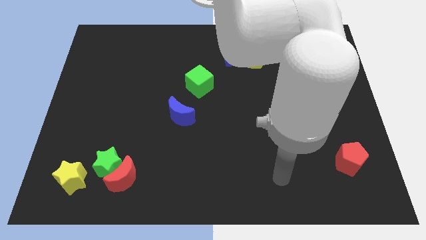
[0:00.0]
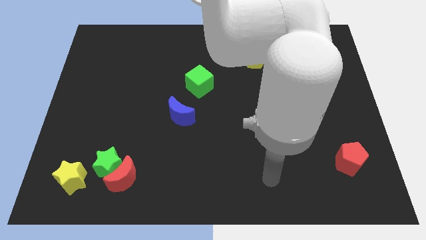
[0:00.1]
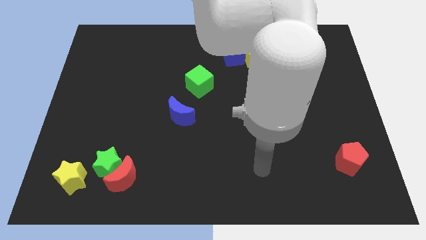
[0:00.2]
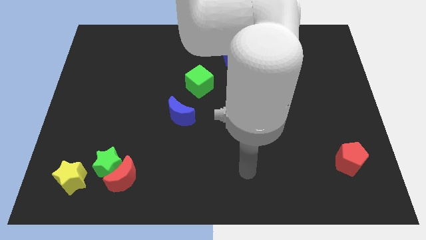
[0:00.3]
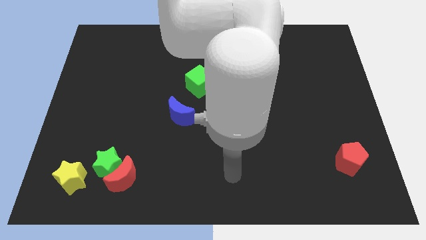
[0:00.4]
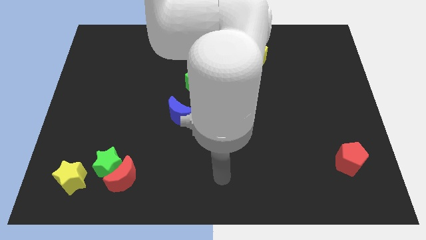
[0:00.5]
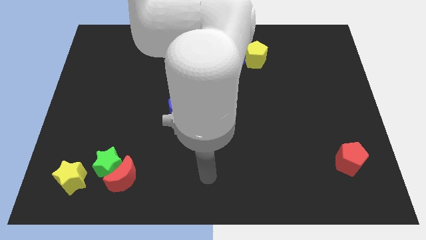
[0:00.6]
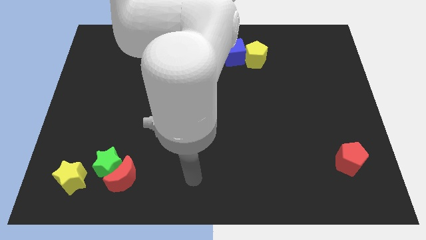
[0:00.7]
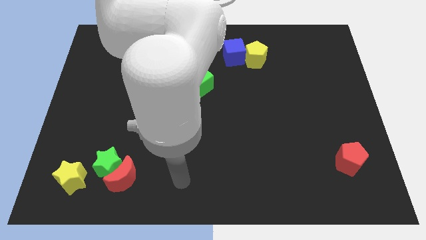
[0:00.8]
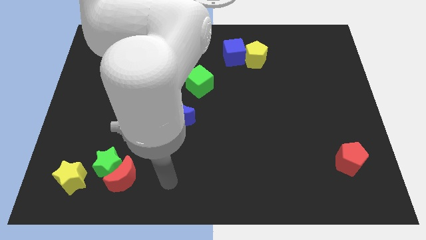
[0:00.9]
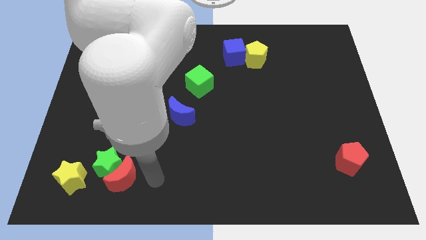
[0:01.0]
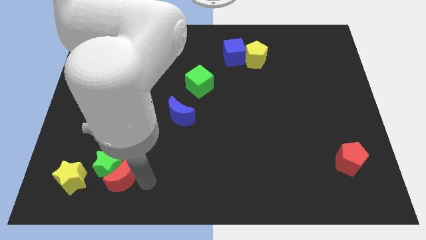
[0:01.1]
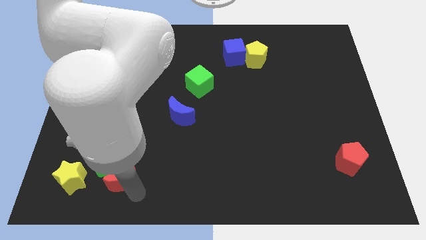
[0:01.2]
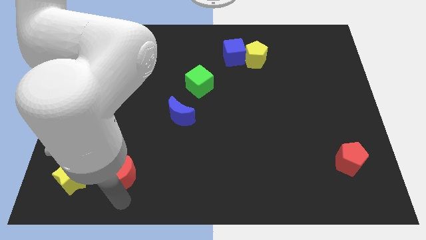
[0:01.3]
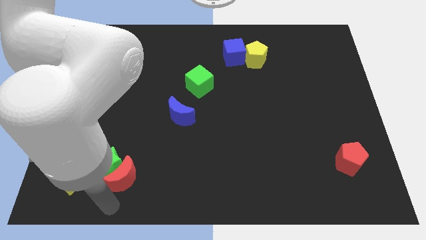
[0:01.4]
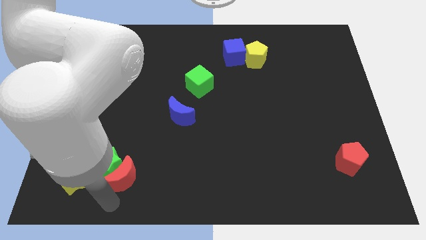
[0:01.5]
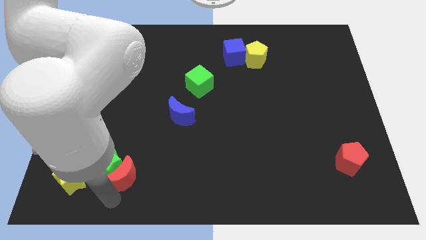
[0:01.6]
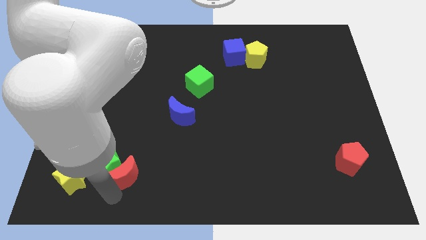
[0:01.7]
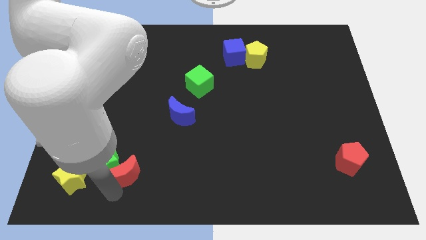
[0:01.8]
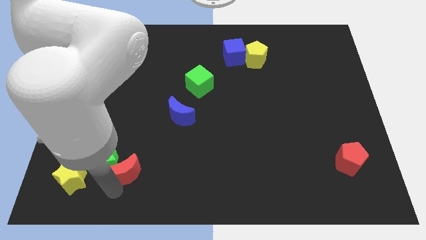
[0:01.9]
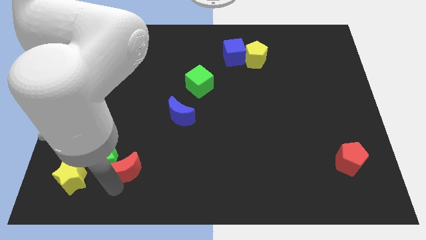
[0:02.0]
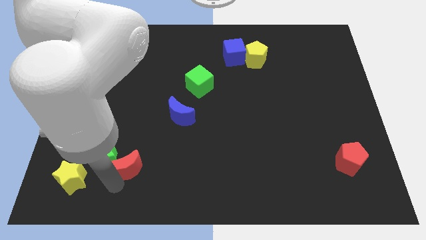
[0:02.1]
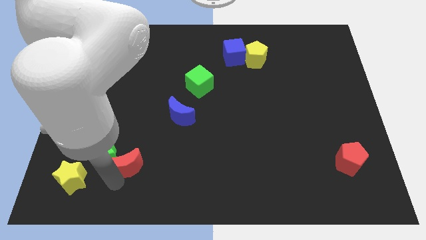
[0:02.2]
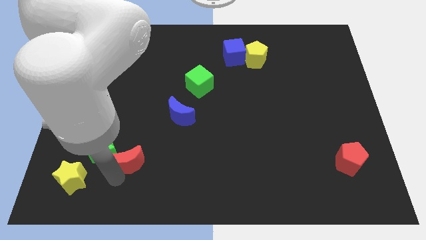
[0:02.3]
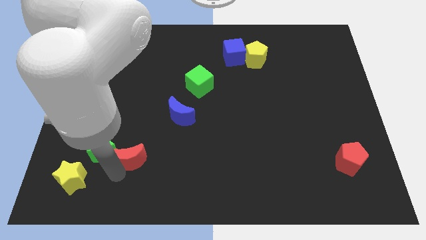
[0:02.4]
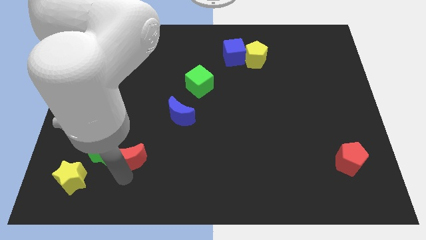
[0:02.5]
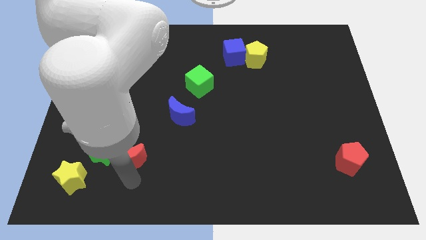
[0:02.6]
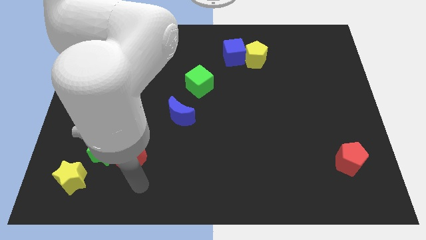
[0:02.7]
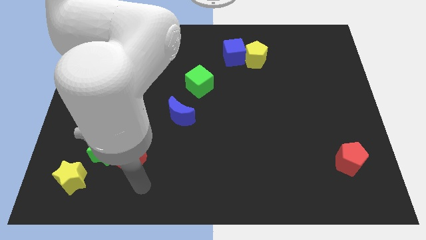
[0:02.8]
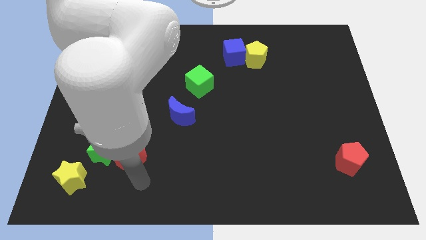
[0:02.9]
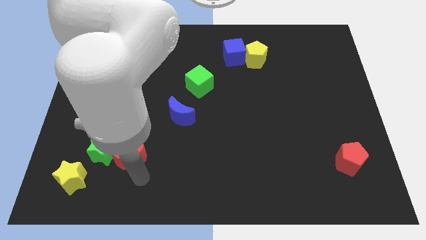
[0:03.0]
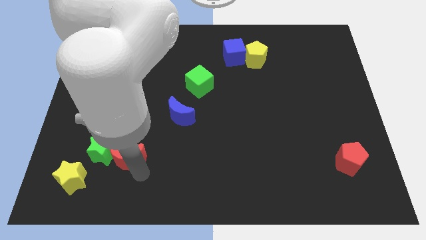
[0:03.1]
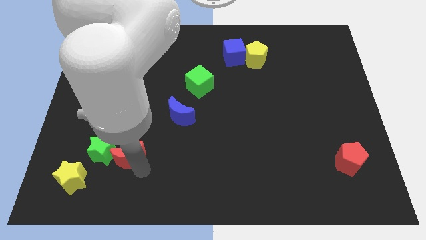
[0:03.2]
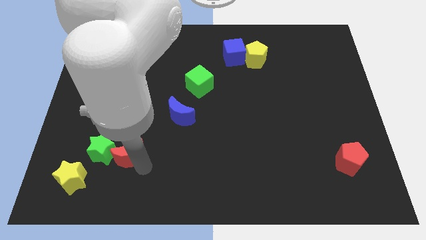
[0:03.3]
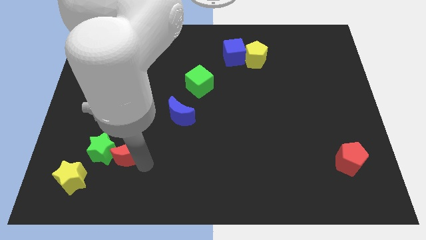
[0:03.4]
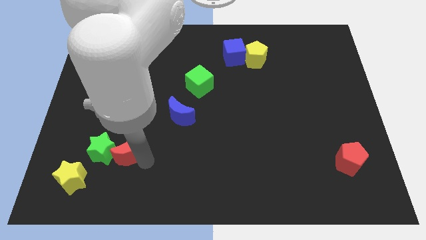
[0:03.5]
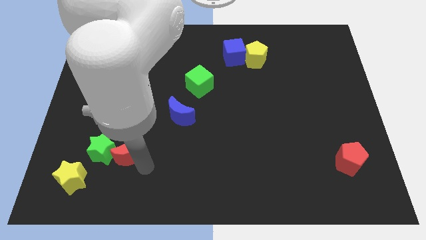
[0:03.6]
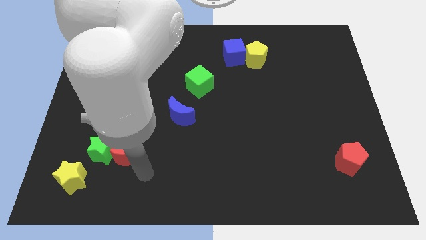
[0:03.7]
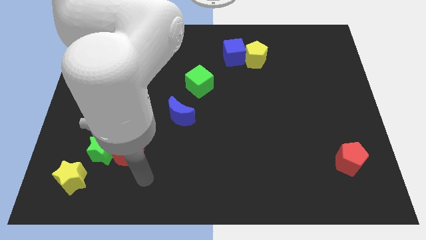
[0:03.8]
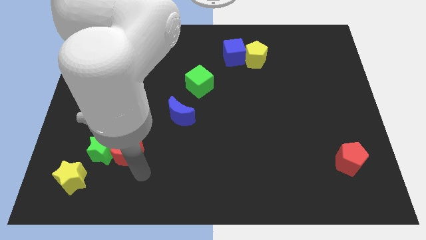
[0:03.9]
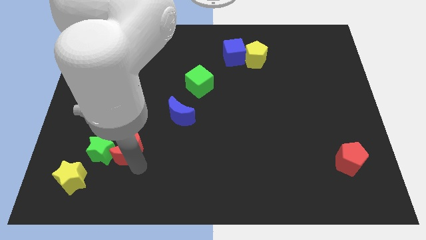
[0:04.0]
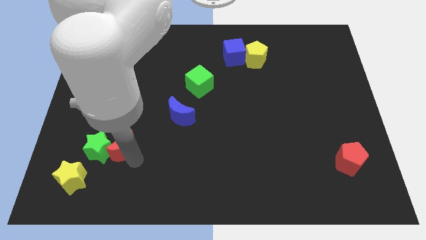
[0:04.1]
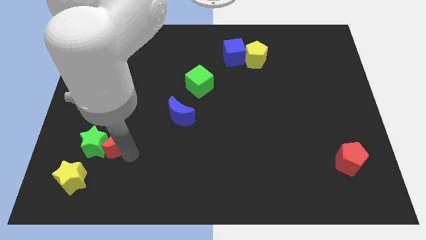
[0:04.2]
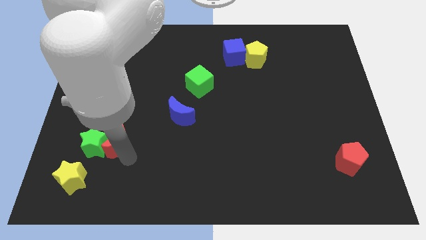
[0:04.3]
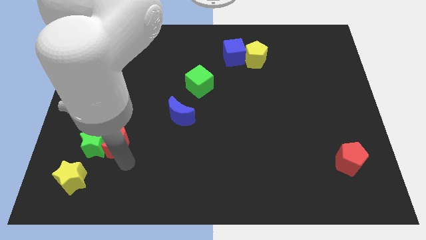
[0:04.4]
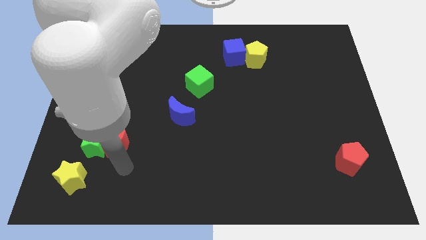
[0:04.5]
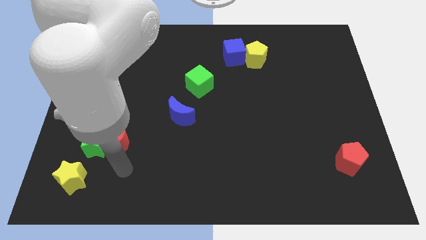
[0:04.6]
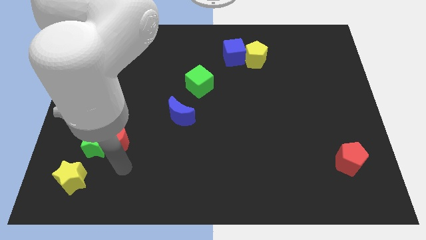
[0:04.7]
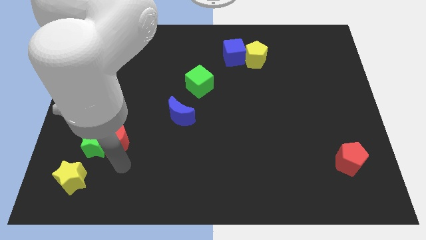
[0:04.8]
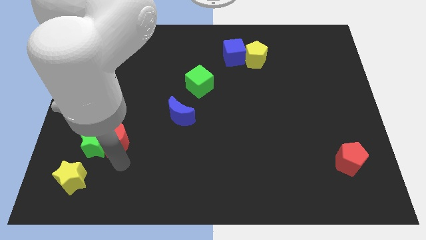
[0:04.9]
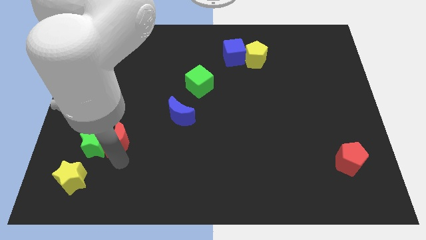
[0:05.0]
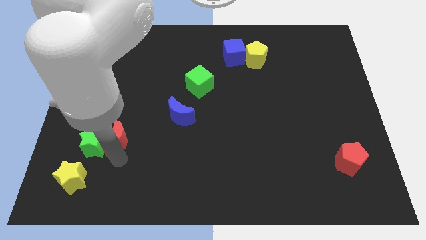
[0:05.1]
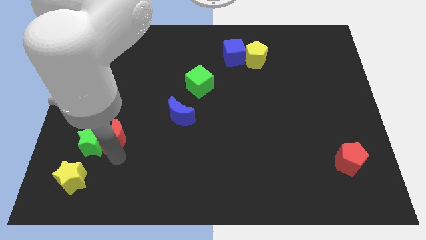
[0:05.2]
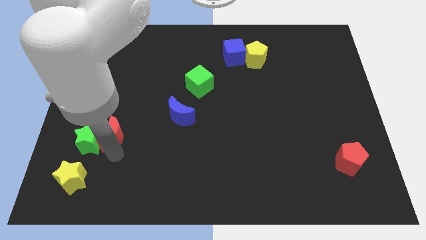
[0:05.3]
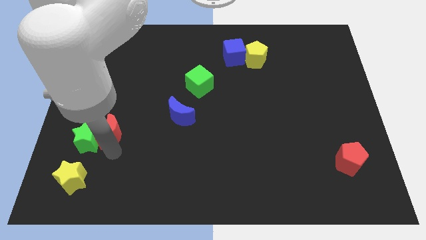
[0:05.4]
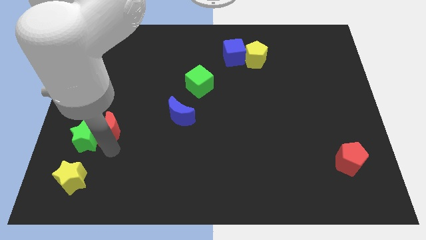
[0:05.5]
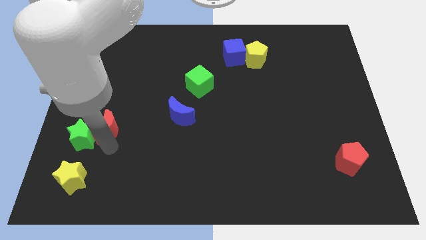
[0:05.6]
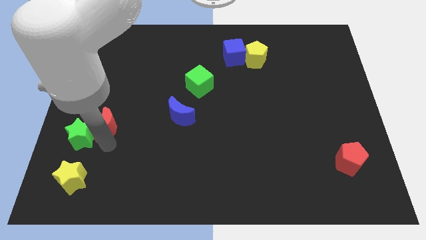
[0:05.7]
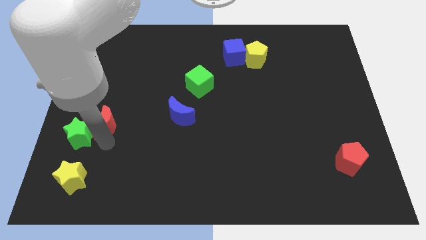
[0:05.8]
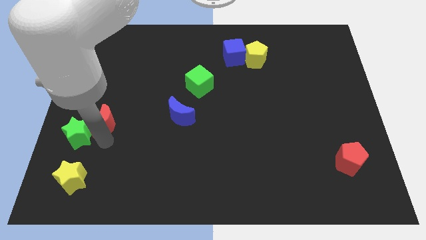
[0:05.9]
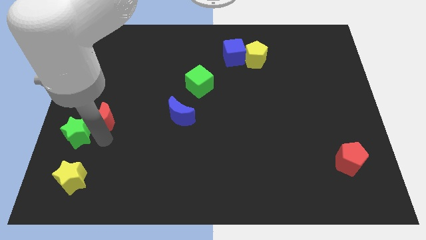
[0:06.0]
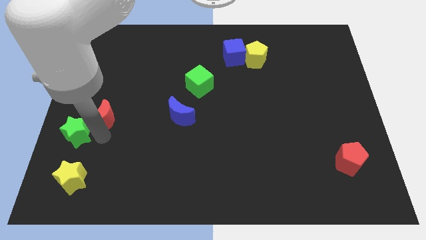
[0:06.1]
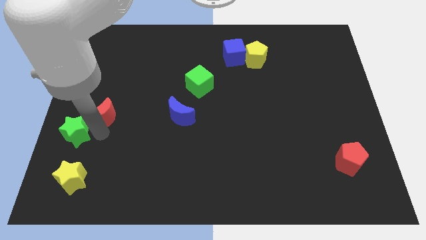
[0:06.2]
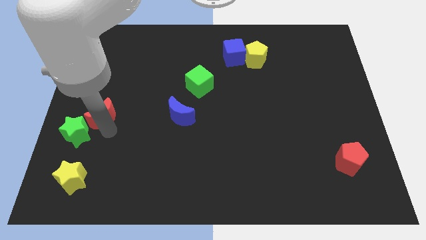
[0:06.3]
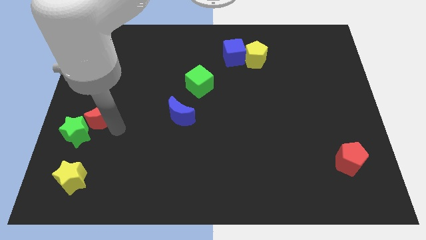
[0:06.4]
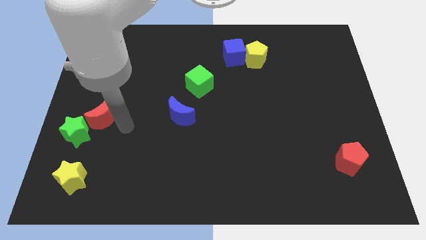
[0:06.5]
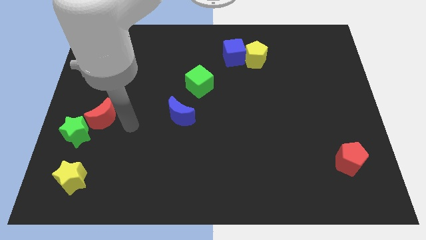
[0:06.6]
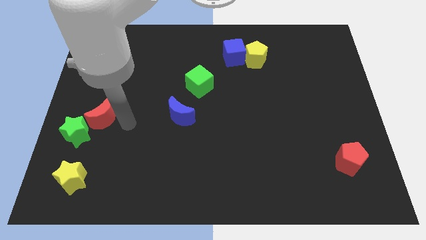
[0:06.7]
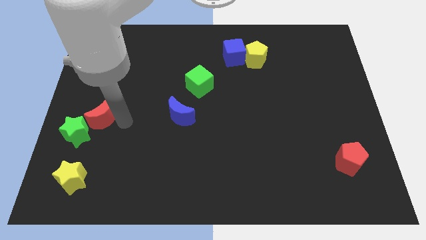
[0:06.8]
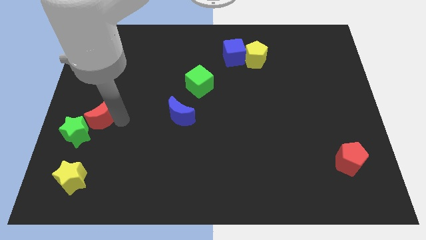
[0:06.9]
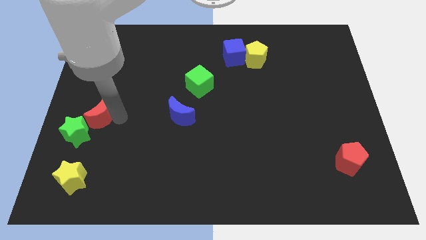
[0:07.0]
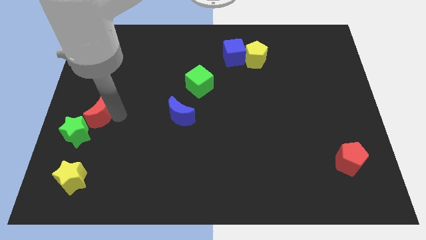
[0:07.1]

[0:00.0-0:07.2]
slide the red moon to the center left
